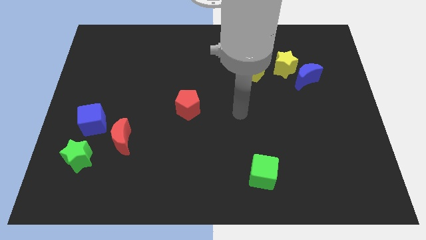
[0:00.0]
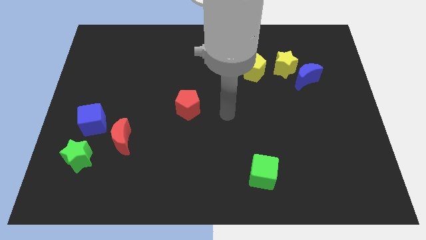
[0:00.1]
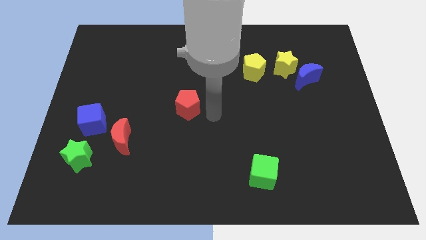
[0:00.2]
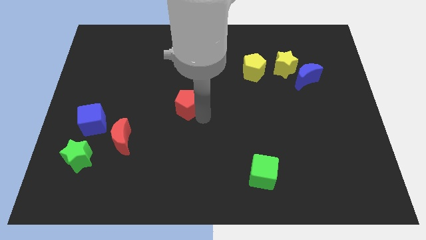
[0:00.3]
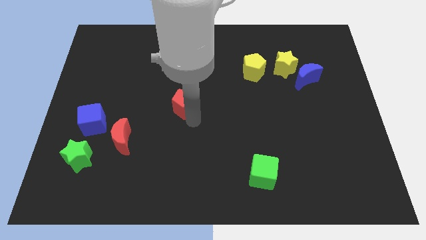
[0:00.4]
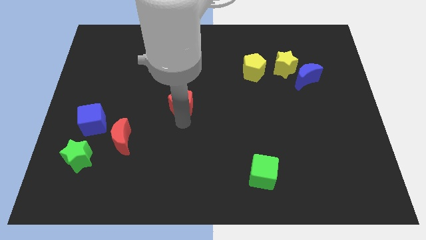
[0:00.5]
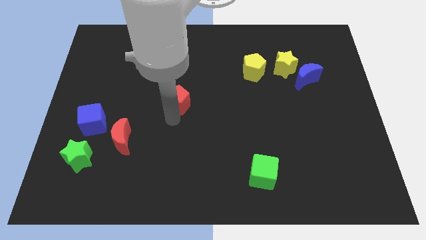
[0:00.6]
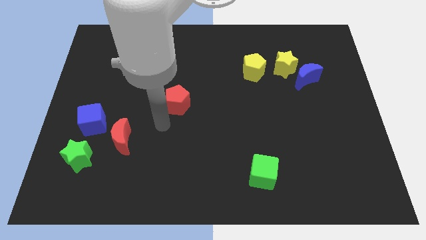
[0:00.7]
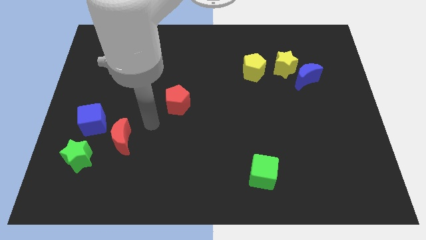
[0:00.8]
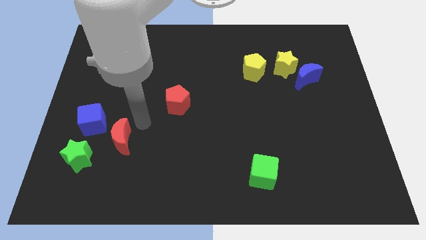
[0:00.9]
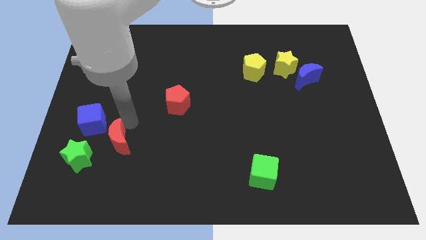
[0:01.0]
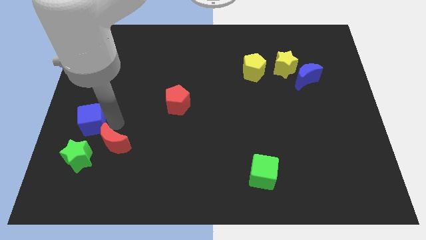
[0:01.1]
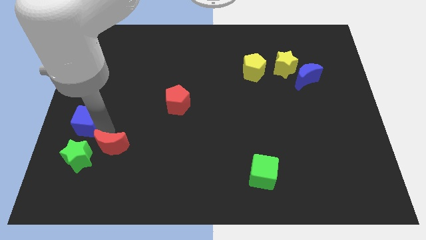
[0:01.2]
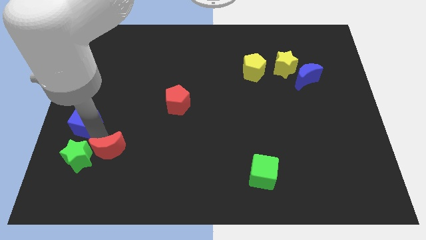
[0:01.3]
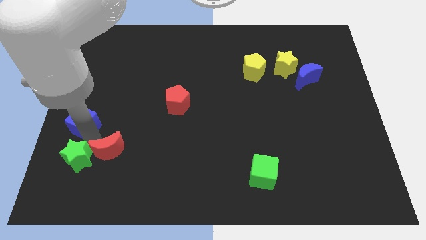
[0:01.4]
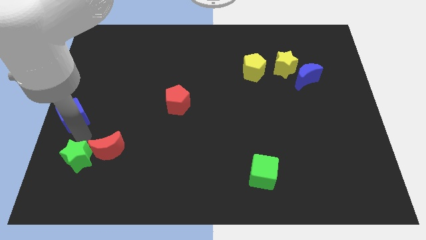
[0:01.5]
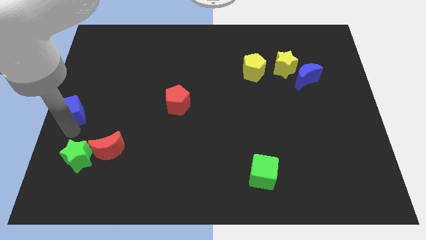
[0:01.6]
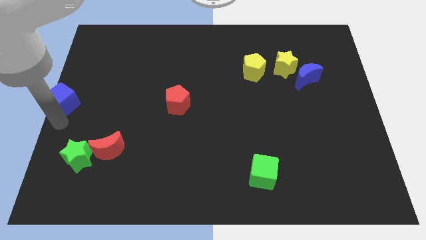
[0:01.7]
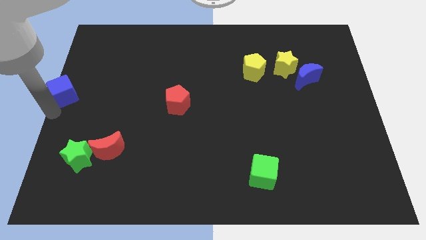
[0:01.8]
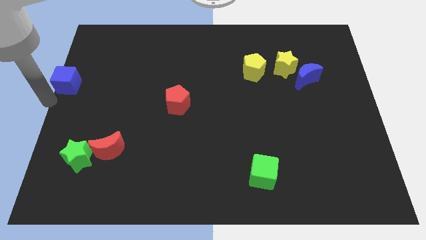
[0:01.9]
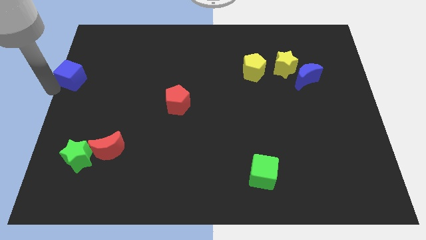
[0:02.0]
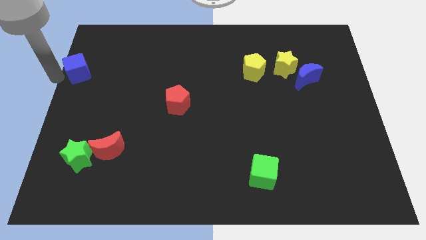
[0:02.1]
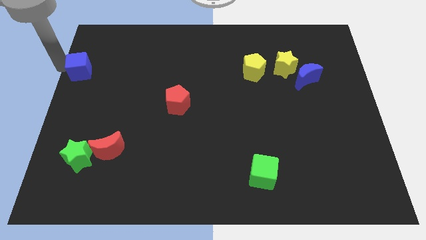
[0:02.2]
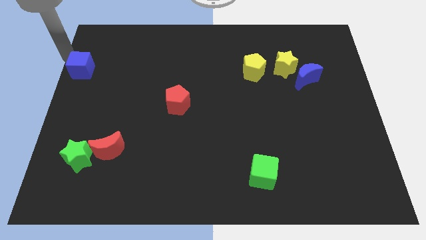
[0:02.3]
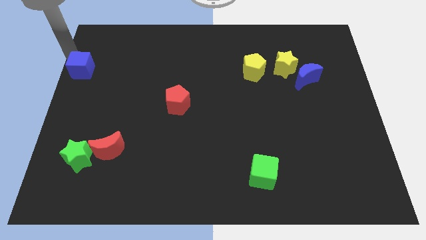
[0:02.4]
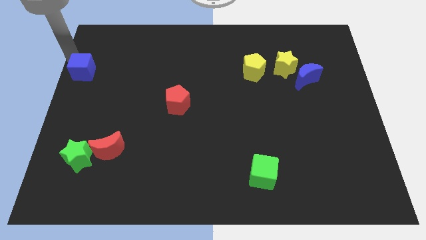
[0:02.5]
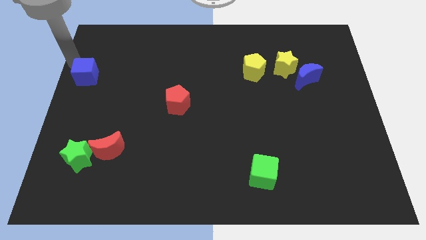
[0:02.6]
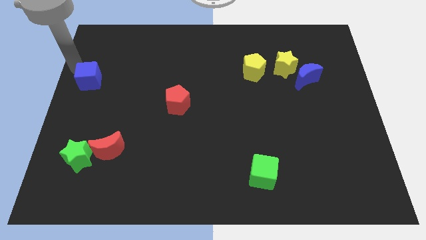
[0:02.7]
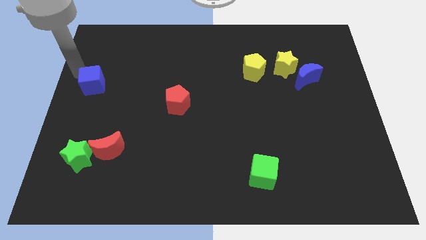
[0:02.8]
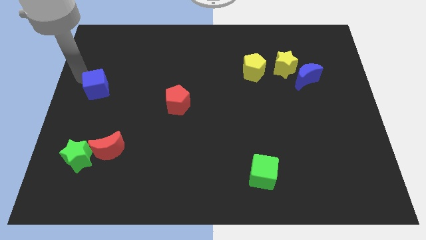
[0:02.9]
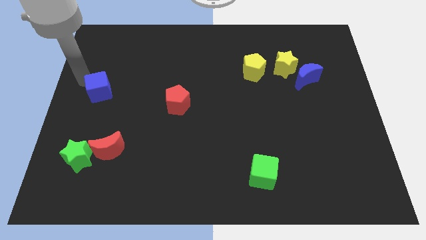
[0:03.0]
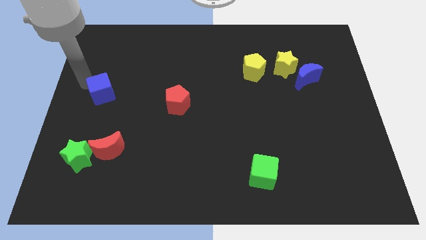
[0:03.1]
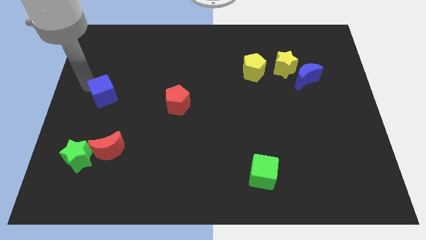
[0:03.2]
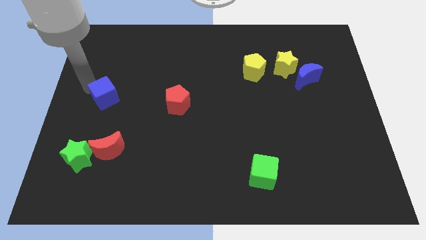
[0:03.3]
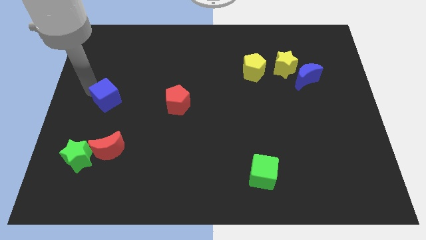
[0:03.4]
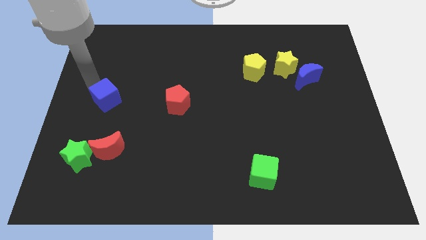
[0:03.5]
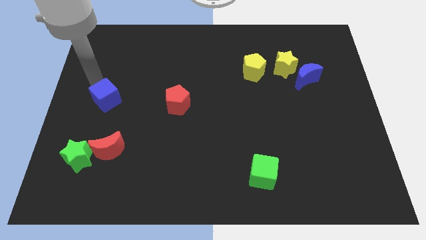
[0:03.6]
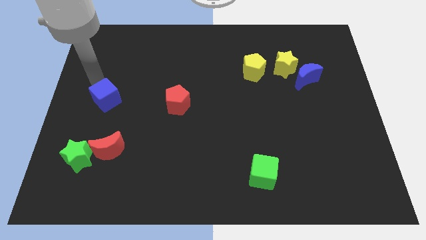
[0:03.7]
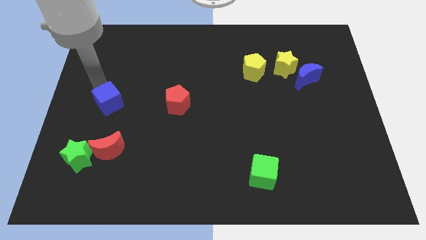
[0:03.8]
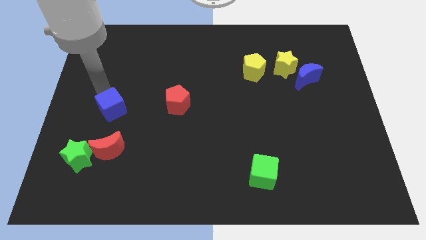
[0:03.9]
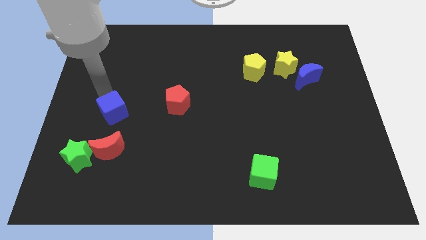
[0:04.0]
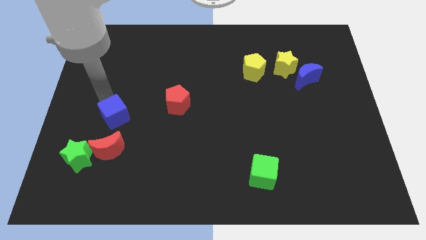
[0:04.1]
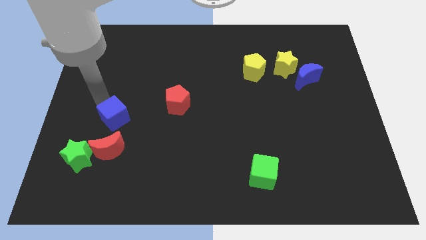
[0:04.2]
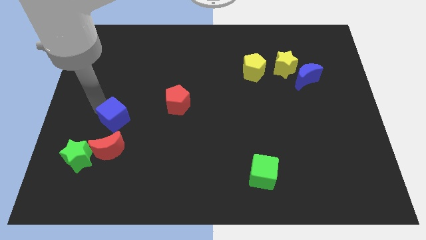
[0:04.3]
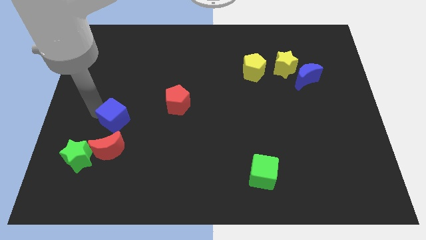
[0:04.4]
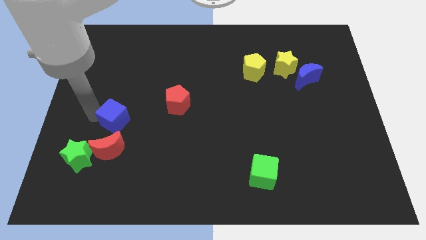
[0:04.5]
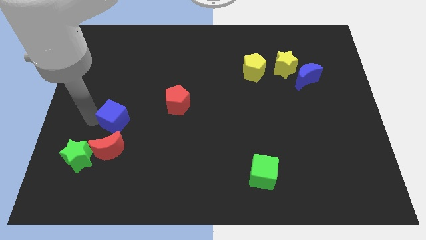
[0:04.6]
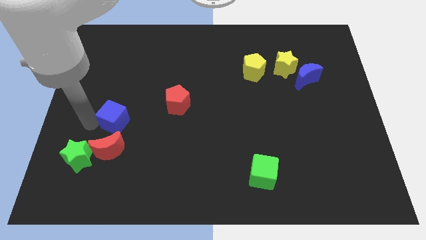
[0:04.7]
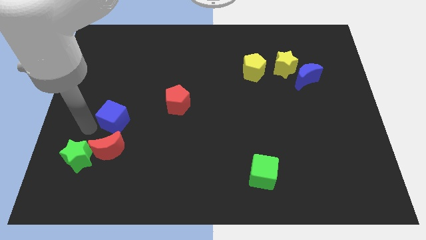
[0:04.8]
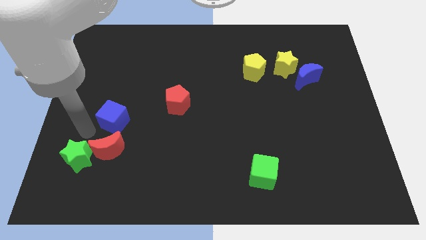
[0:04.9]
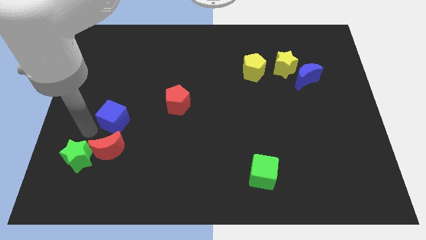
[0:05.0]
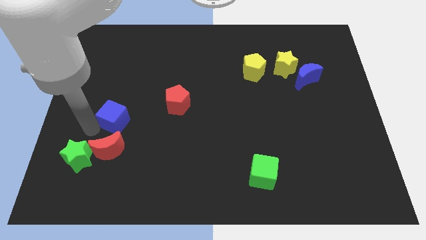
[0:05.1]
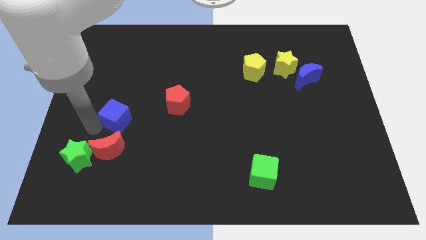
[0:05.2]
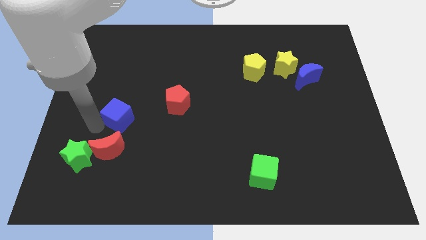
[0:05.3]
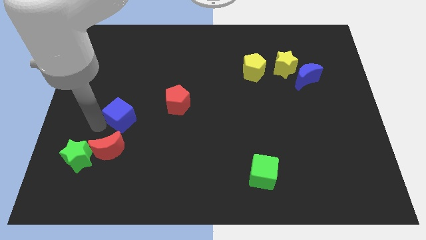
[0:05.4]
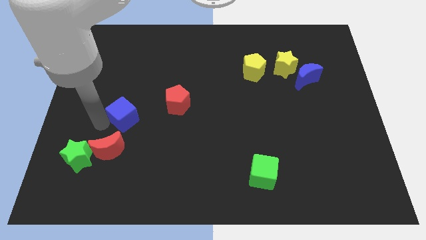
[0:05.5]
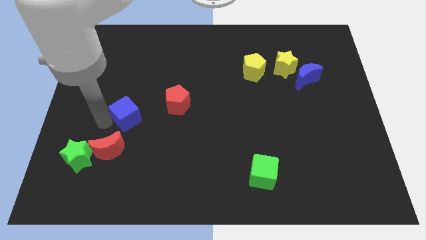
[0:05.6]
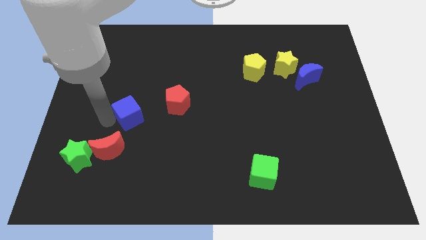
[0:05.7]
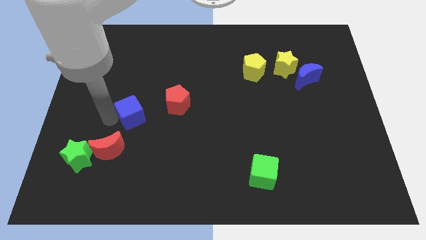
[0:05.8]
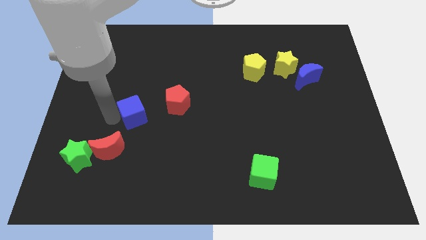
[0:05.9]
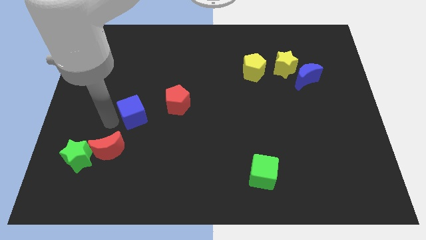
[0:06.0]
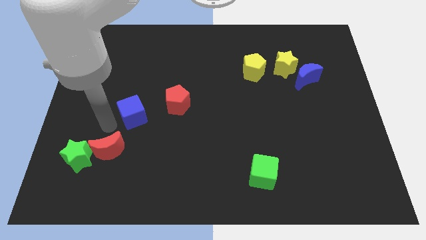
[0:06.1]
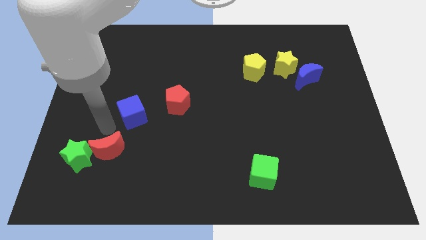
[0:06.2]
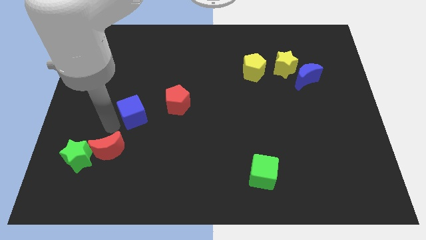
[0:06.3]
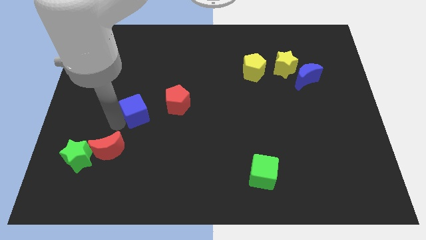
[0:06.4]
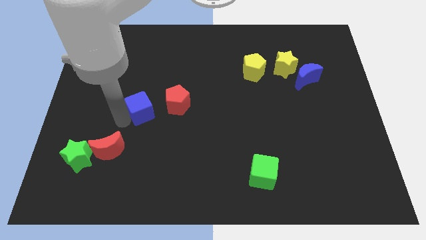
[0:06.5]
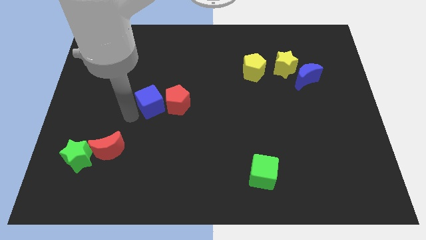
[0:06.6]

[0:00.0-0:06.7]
push the blue cube towards the red pentagon

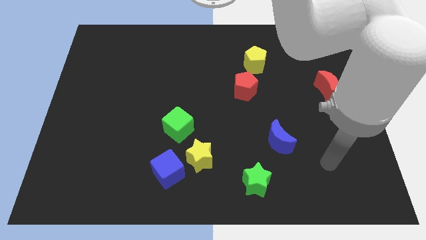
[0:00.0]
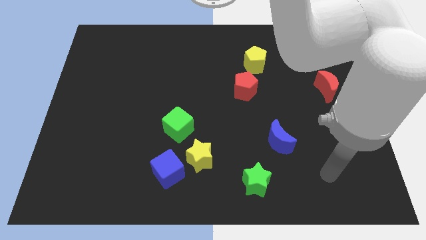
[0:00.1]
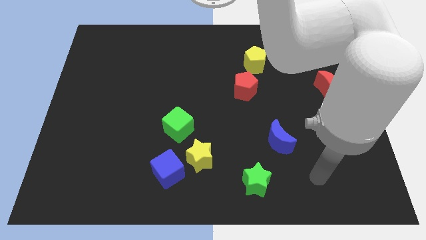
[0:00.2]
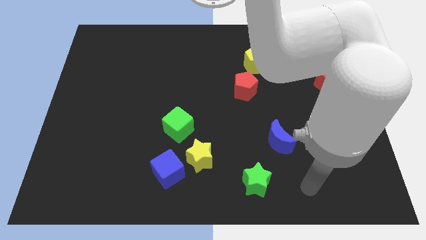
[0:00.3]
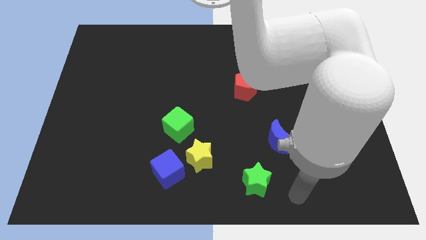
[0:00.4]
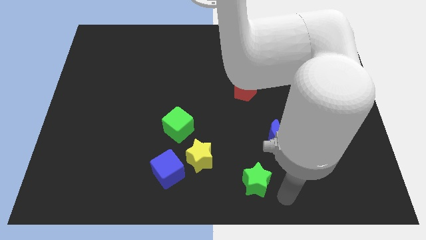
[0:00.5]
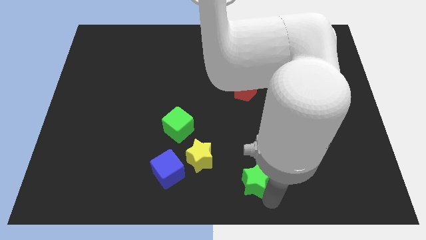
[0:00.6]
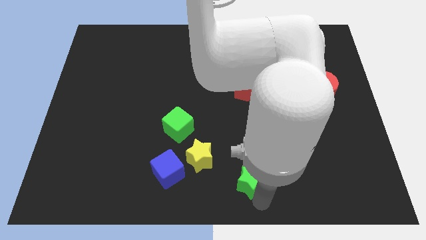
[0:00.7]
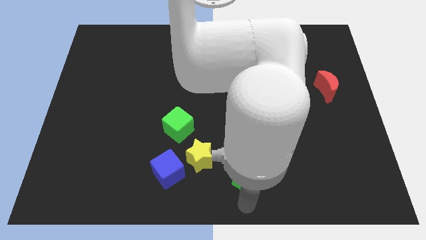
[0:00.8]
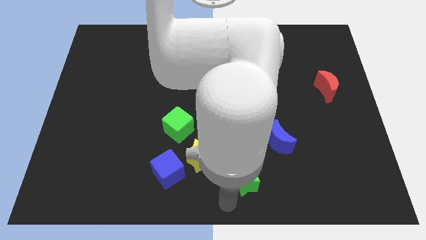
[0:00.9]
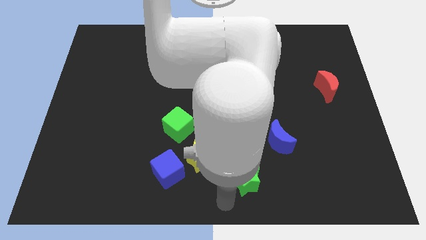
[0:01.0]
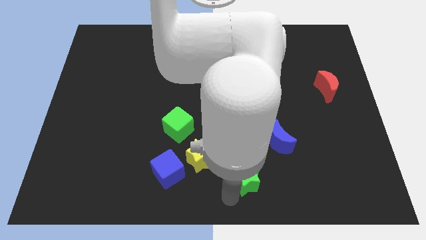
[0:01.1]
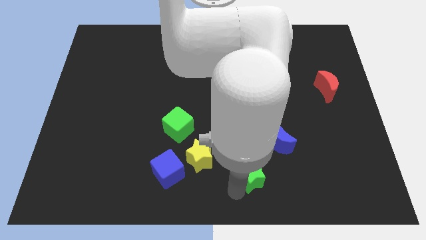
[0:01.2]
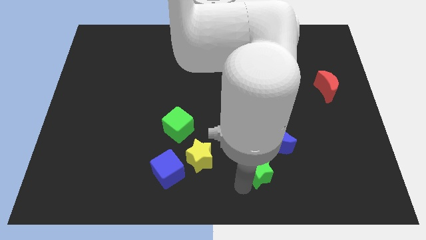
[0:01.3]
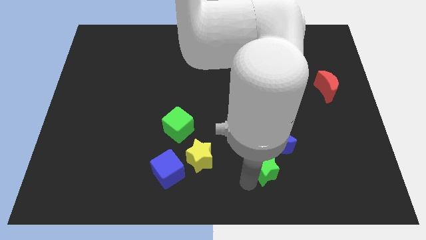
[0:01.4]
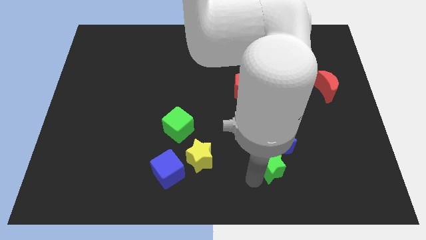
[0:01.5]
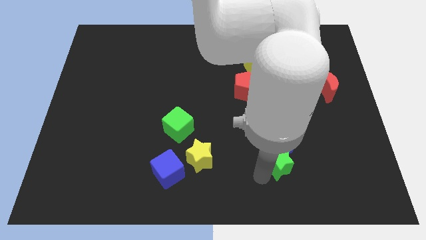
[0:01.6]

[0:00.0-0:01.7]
slide the green star towards the blue moon
